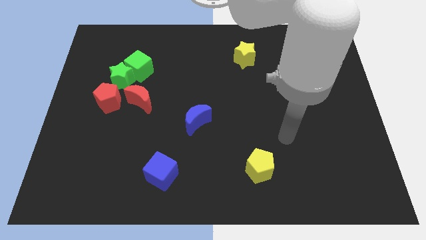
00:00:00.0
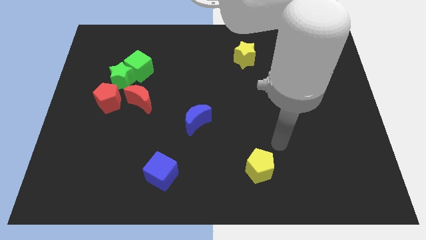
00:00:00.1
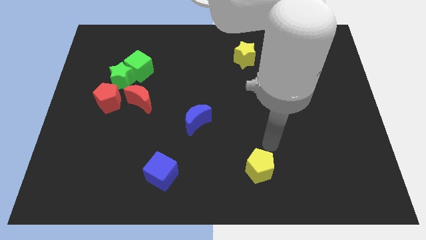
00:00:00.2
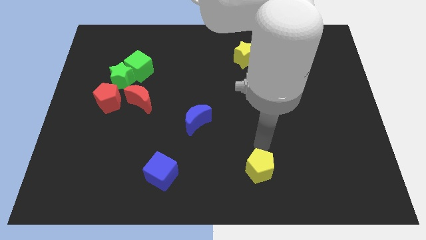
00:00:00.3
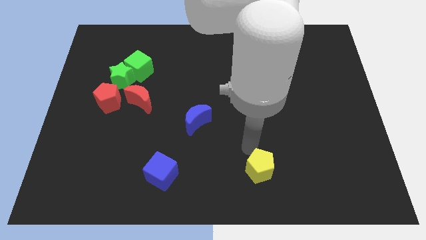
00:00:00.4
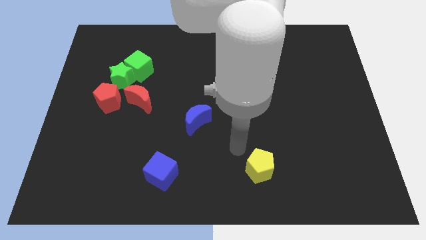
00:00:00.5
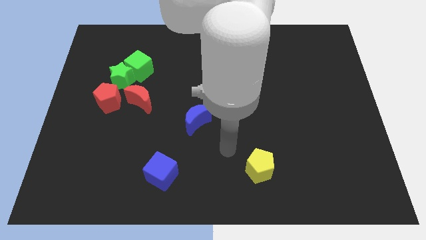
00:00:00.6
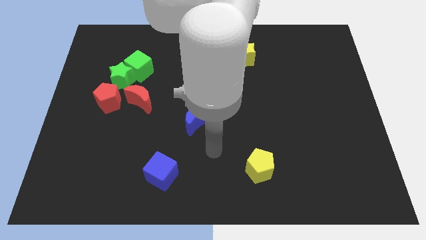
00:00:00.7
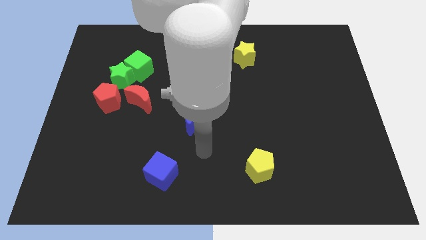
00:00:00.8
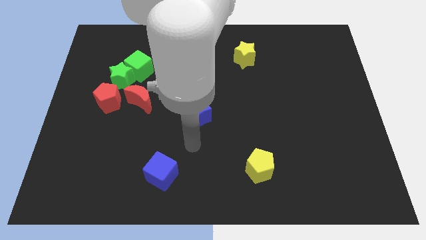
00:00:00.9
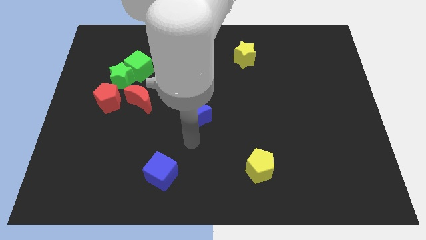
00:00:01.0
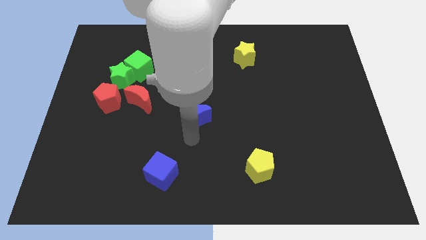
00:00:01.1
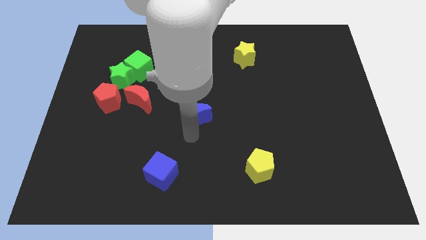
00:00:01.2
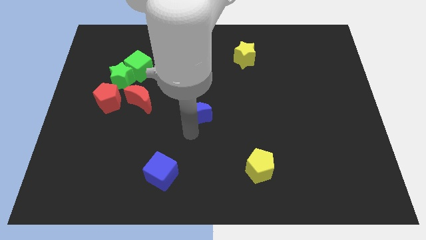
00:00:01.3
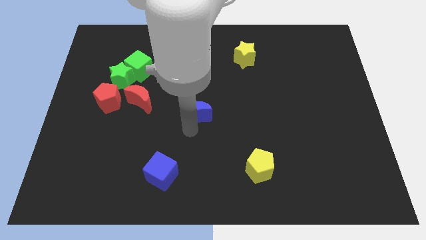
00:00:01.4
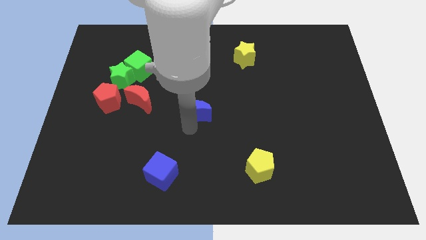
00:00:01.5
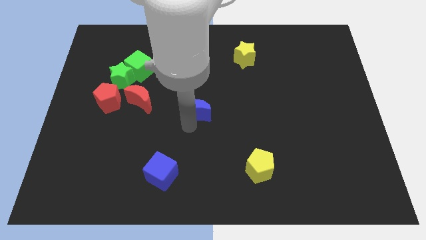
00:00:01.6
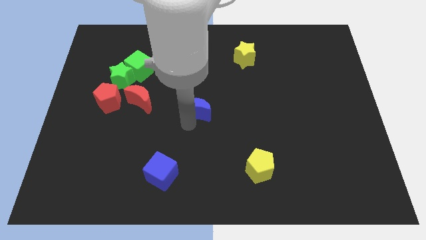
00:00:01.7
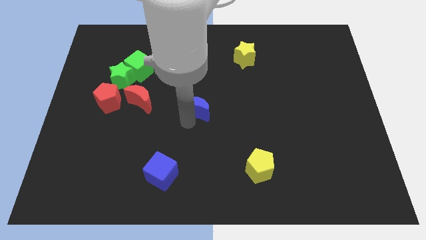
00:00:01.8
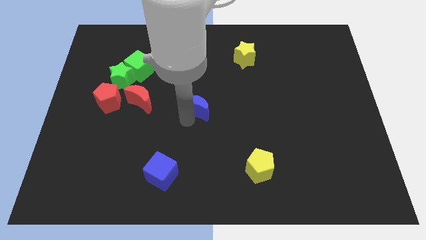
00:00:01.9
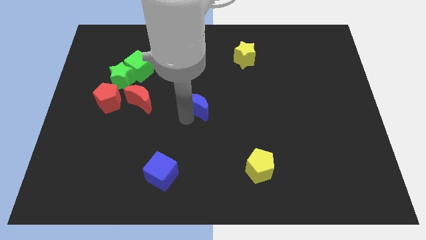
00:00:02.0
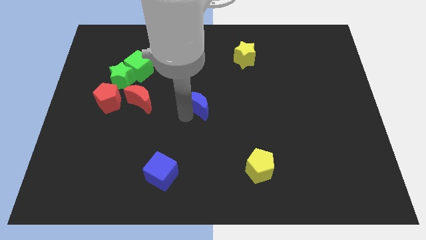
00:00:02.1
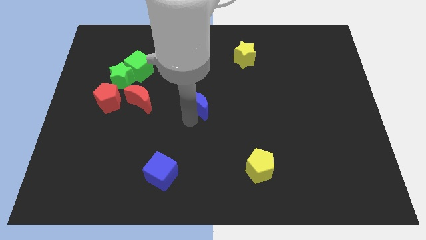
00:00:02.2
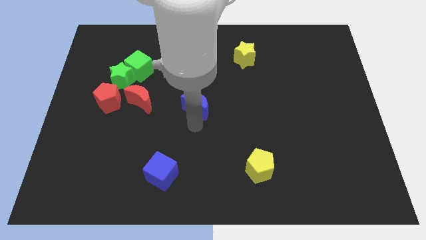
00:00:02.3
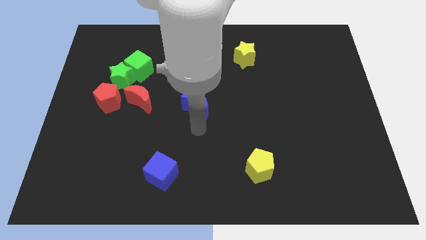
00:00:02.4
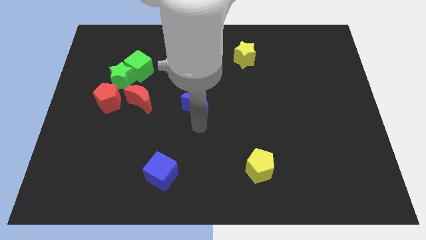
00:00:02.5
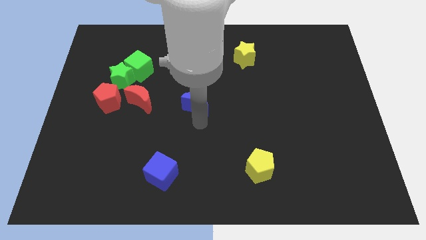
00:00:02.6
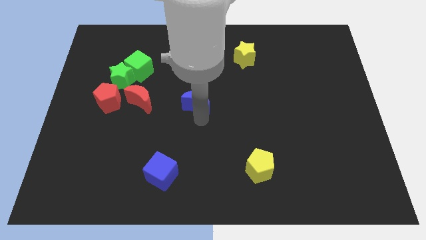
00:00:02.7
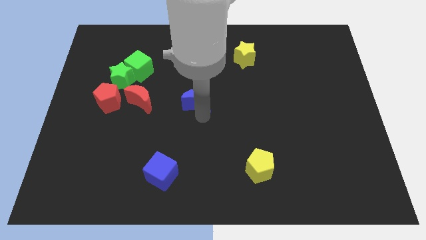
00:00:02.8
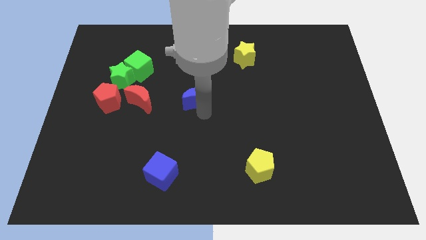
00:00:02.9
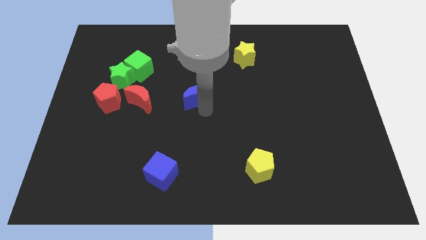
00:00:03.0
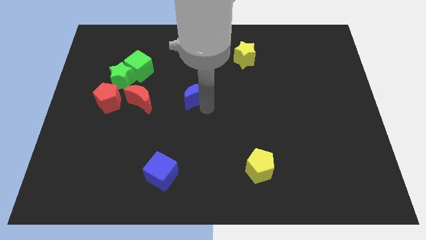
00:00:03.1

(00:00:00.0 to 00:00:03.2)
push the blue moon up a little bit

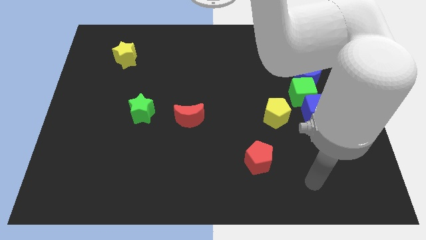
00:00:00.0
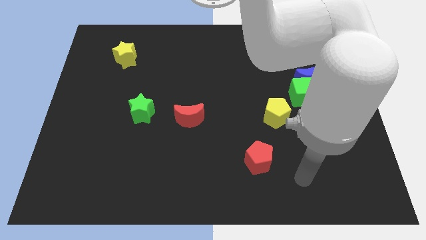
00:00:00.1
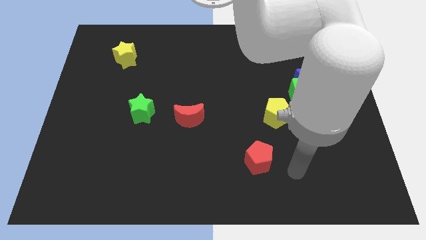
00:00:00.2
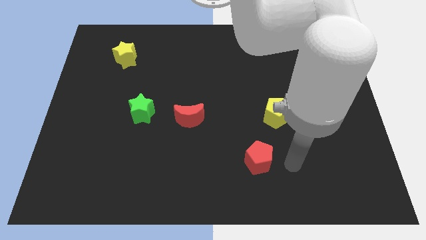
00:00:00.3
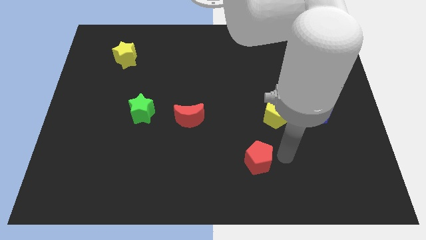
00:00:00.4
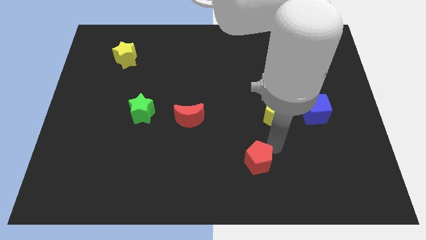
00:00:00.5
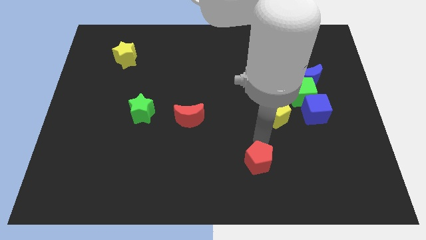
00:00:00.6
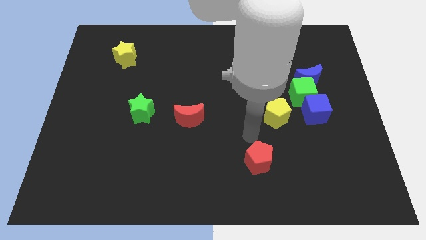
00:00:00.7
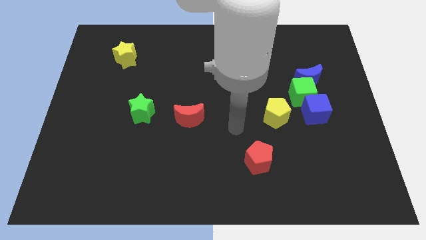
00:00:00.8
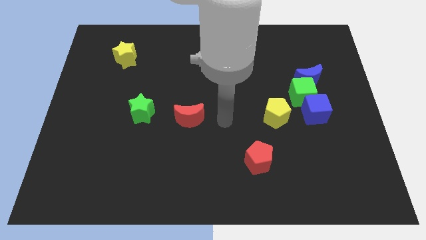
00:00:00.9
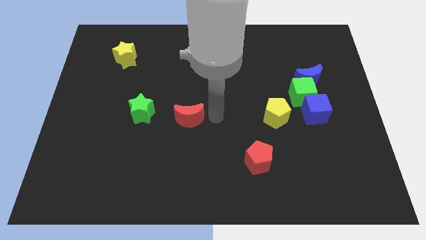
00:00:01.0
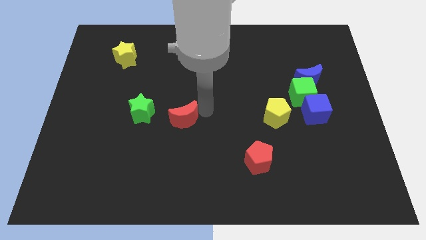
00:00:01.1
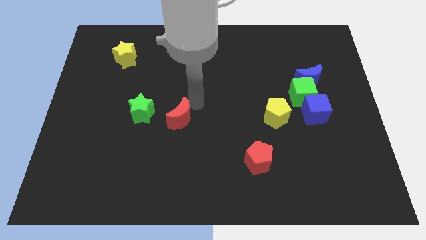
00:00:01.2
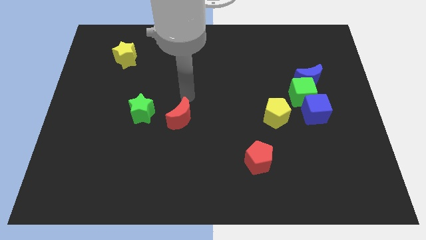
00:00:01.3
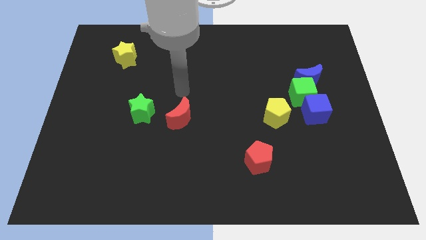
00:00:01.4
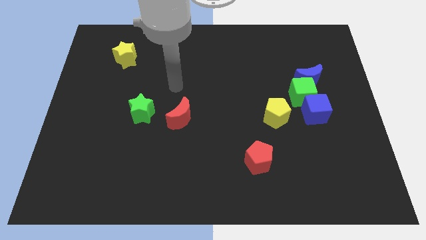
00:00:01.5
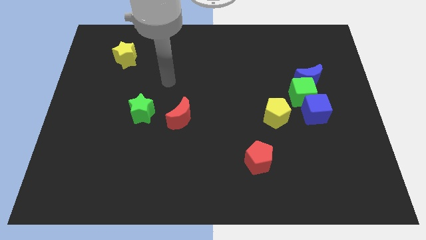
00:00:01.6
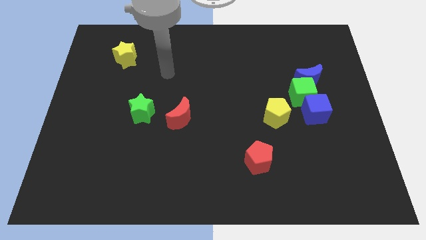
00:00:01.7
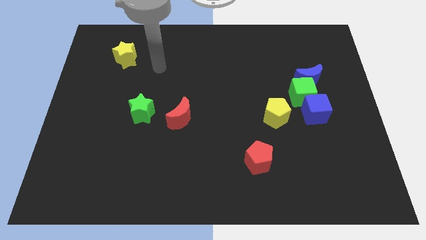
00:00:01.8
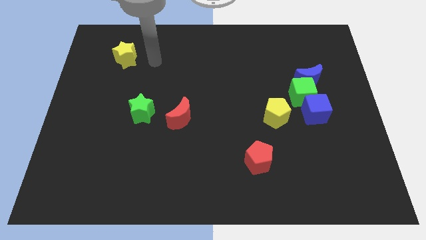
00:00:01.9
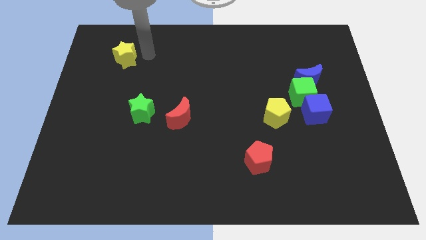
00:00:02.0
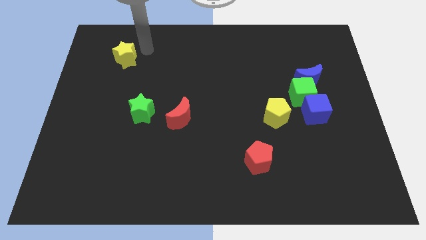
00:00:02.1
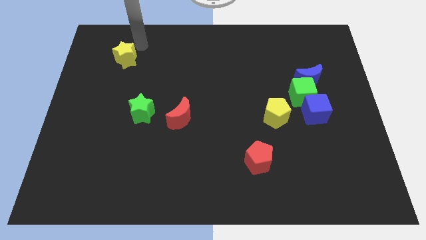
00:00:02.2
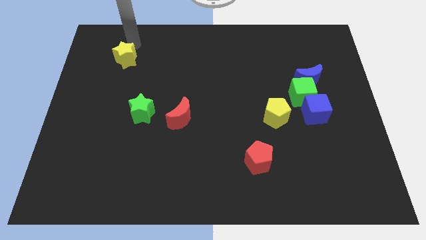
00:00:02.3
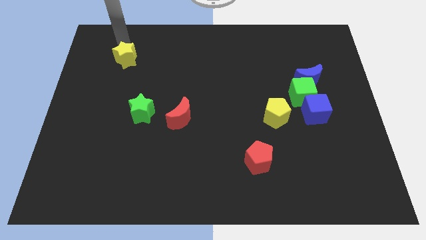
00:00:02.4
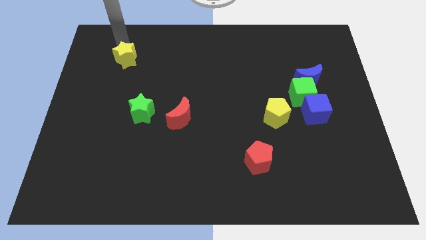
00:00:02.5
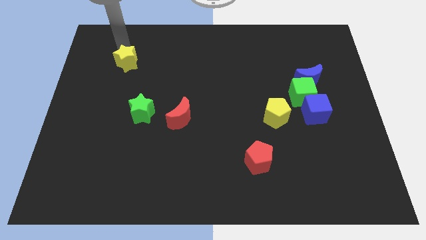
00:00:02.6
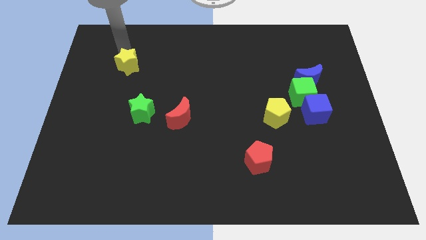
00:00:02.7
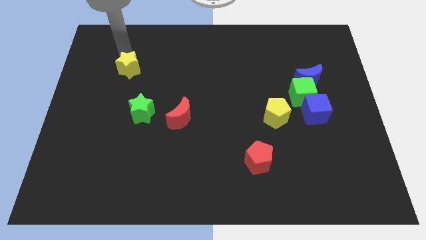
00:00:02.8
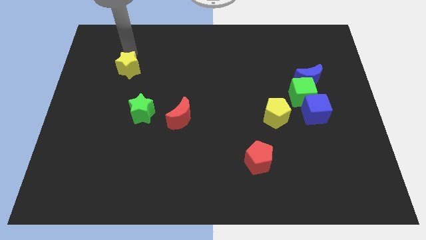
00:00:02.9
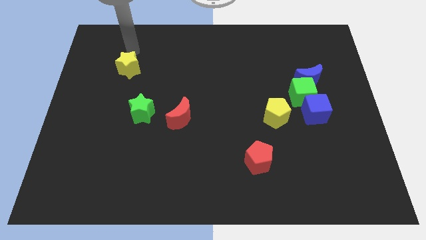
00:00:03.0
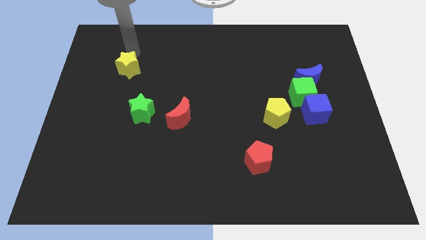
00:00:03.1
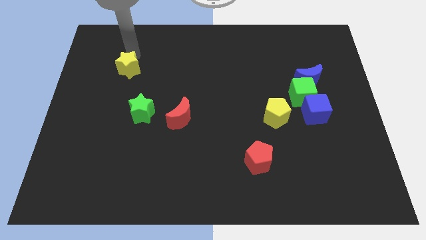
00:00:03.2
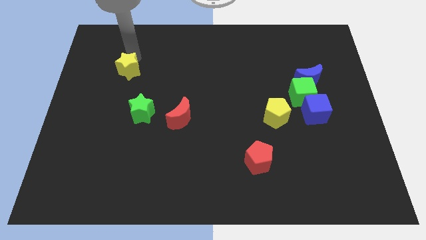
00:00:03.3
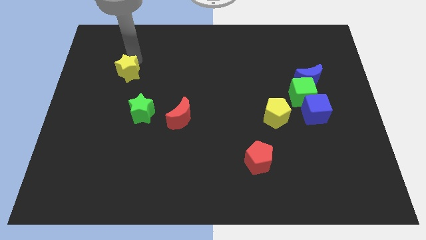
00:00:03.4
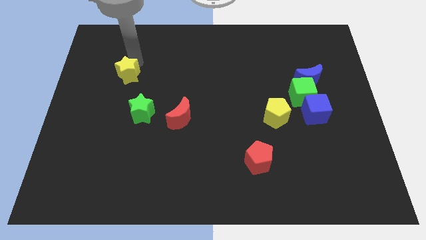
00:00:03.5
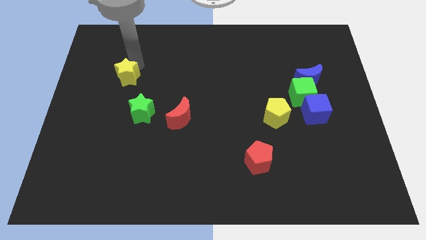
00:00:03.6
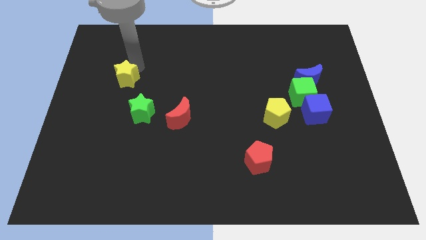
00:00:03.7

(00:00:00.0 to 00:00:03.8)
move the yellow star downwards slightly

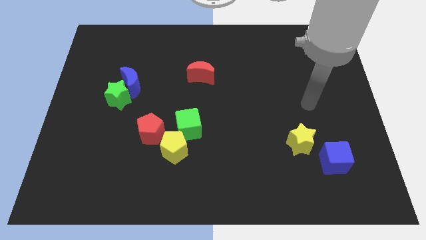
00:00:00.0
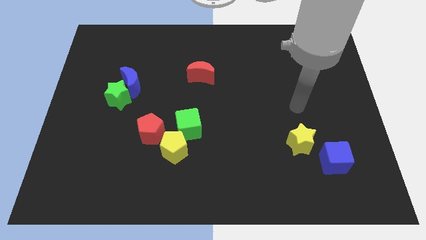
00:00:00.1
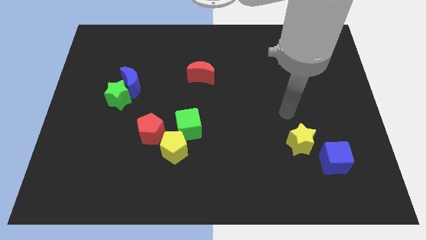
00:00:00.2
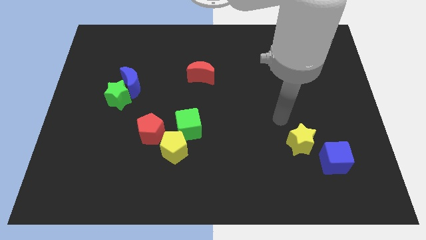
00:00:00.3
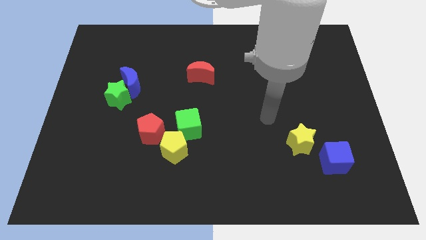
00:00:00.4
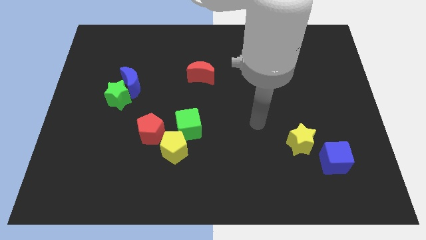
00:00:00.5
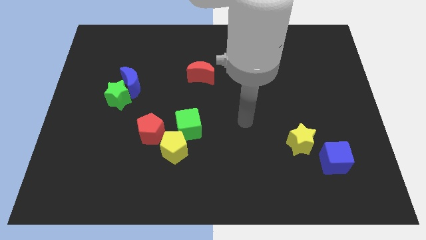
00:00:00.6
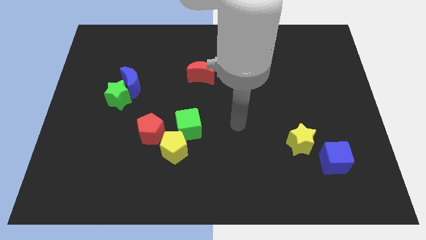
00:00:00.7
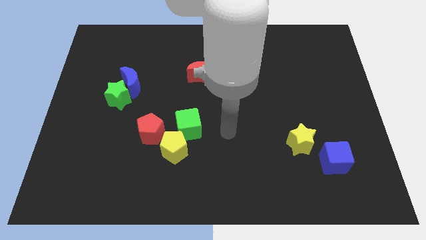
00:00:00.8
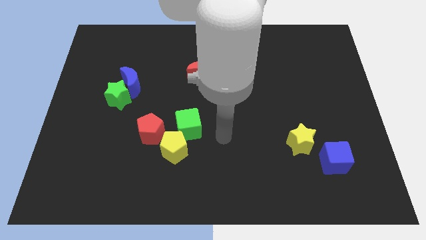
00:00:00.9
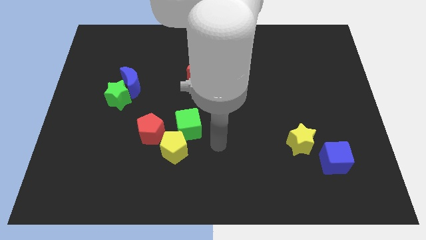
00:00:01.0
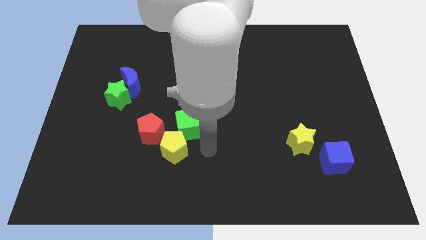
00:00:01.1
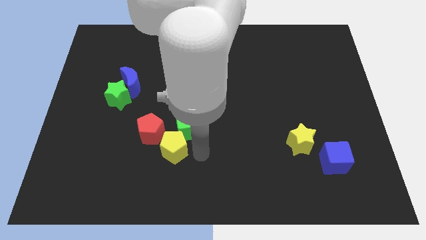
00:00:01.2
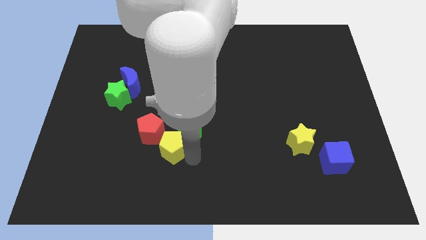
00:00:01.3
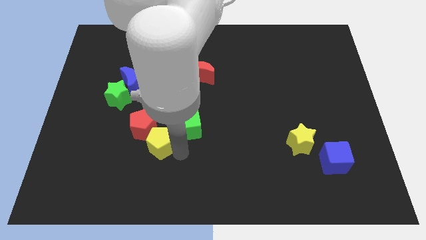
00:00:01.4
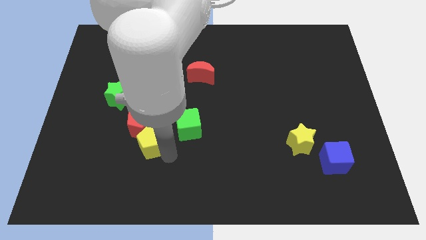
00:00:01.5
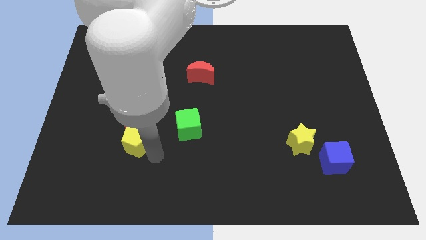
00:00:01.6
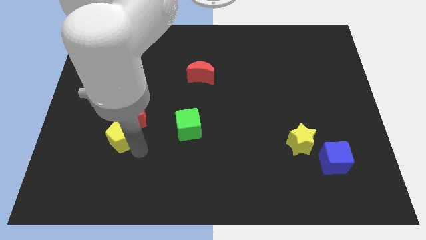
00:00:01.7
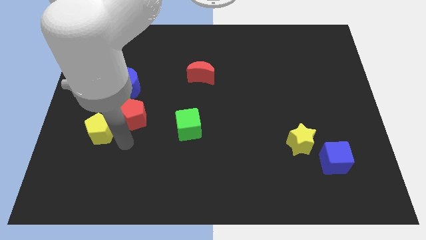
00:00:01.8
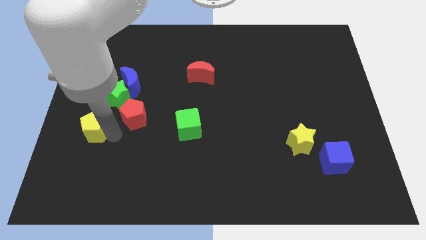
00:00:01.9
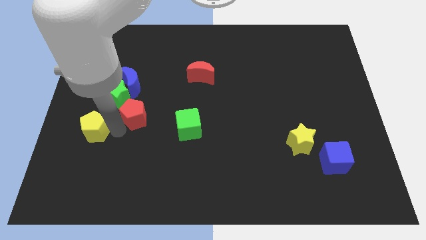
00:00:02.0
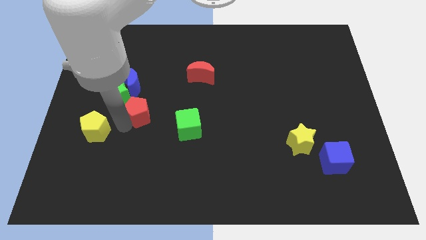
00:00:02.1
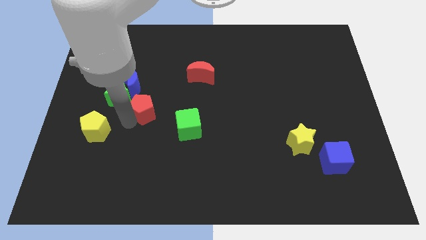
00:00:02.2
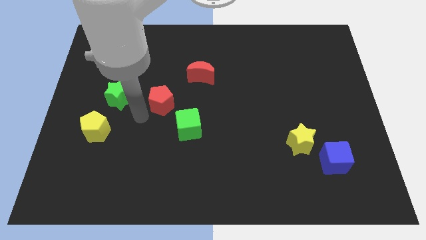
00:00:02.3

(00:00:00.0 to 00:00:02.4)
move the red pentagon up a little bit
